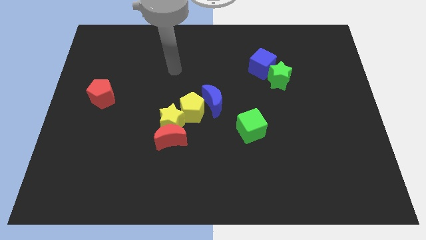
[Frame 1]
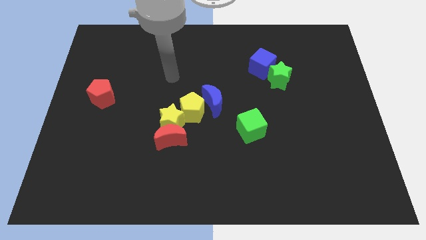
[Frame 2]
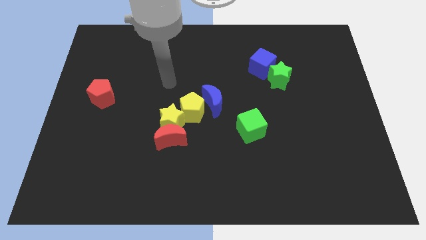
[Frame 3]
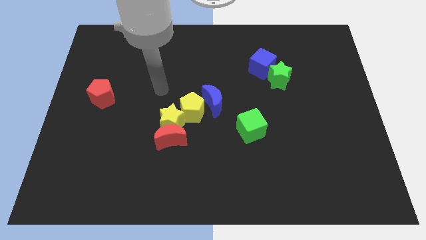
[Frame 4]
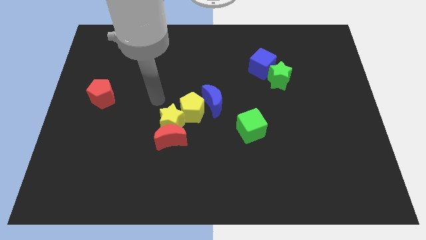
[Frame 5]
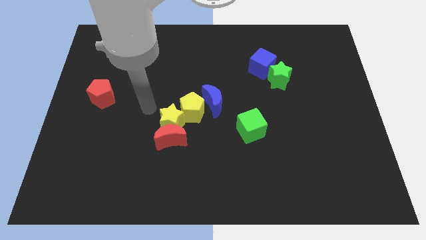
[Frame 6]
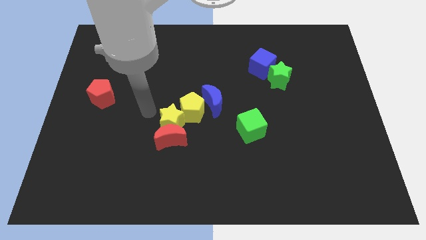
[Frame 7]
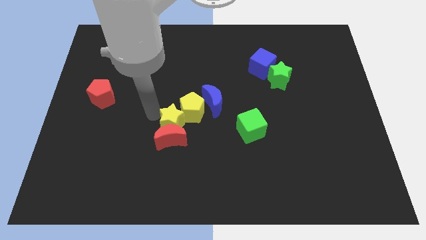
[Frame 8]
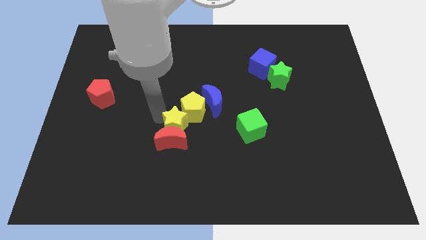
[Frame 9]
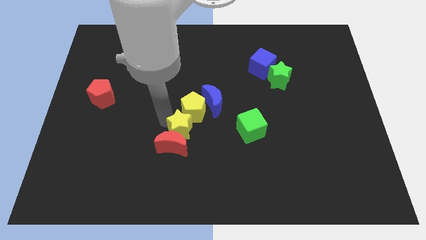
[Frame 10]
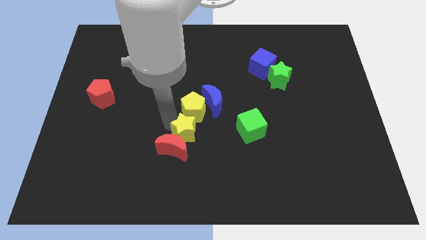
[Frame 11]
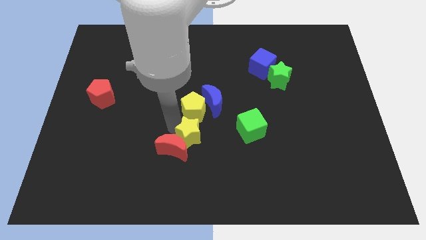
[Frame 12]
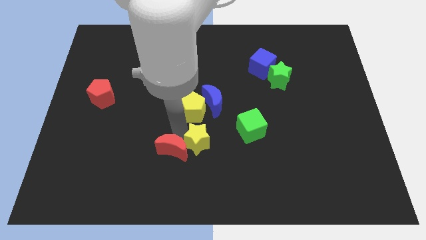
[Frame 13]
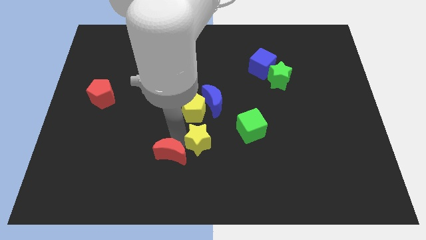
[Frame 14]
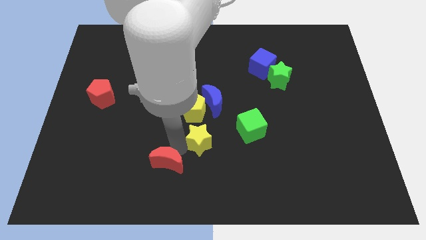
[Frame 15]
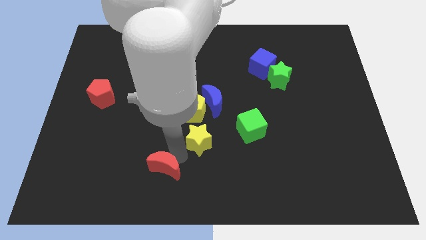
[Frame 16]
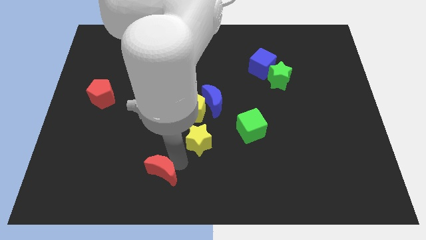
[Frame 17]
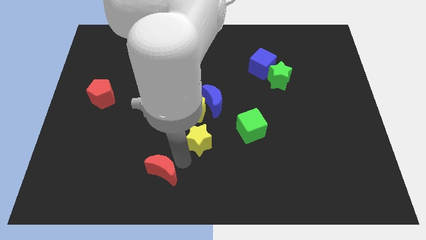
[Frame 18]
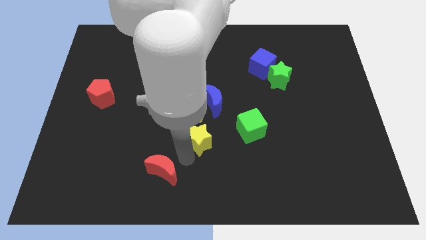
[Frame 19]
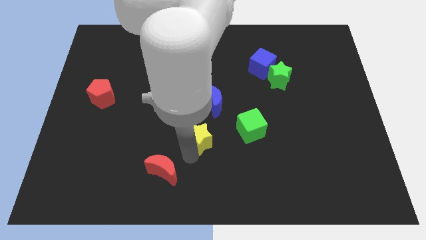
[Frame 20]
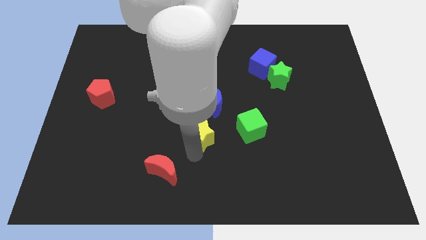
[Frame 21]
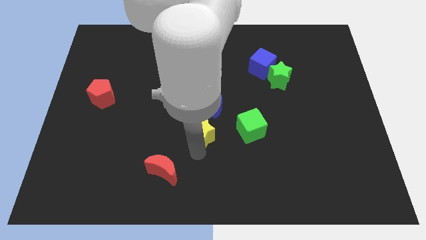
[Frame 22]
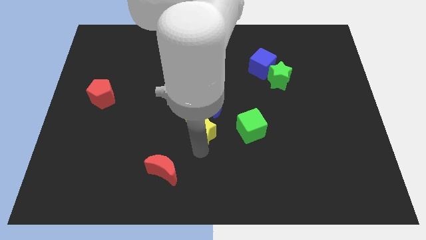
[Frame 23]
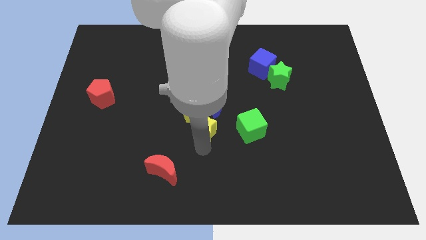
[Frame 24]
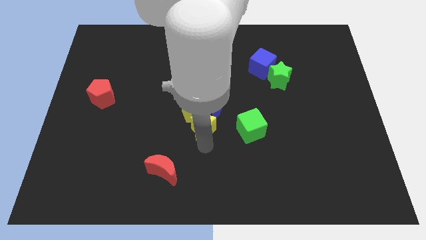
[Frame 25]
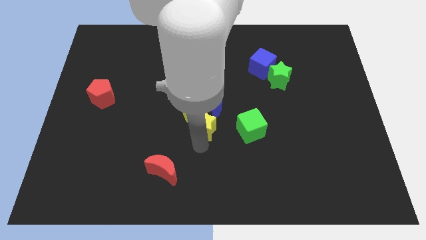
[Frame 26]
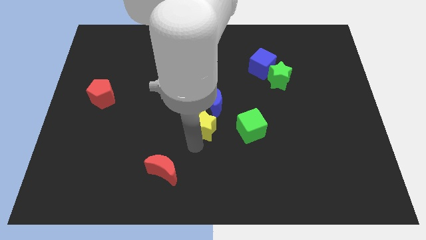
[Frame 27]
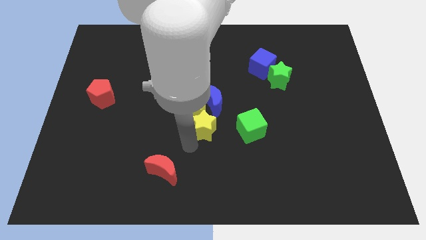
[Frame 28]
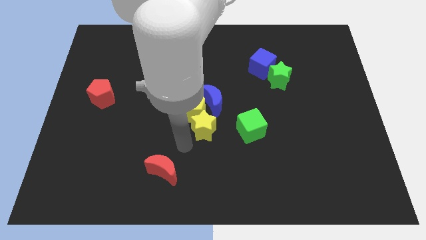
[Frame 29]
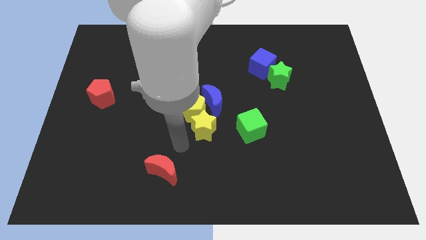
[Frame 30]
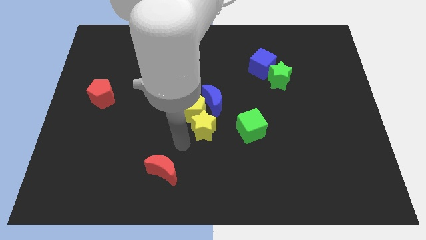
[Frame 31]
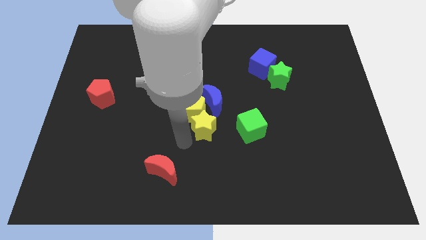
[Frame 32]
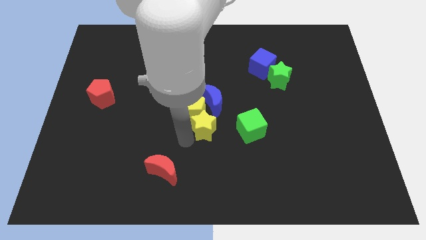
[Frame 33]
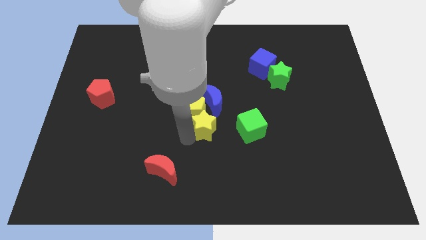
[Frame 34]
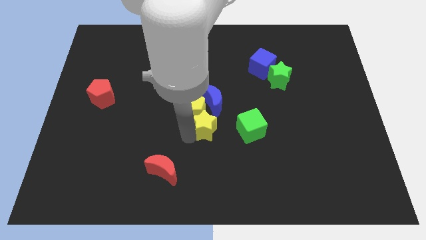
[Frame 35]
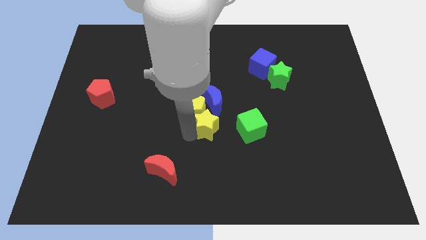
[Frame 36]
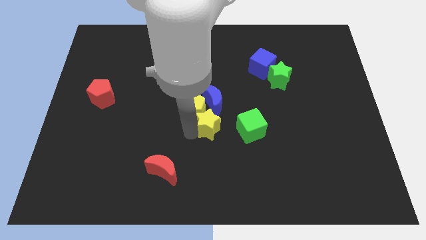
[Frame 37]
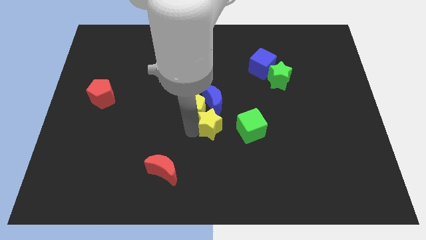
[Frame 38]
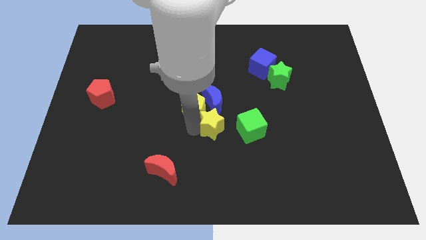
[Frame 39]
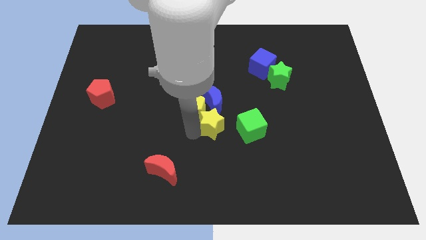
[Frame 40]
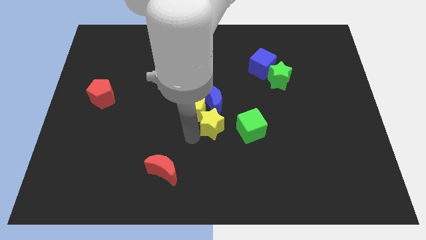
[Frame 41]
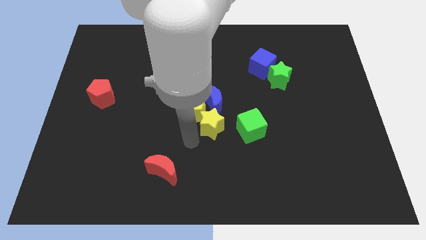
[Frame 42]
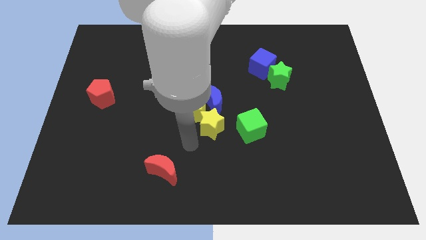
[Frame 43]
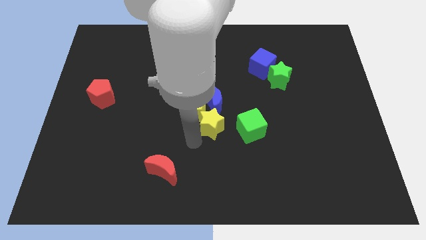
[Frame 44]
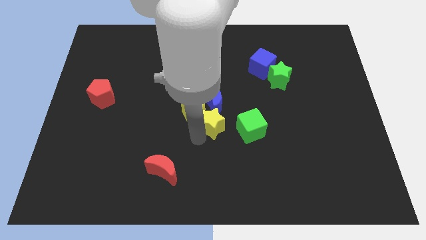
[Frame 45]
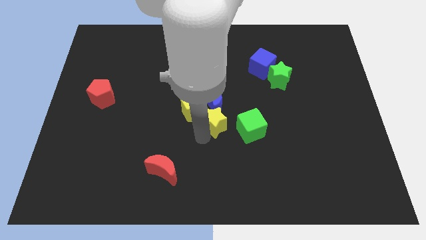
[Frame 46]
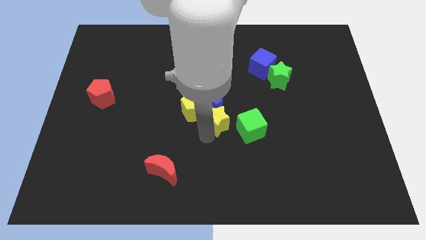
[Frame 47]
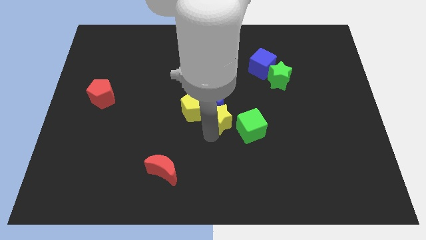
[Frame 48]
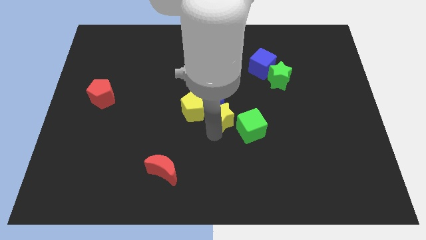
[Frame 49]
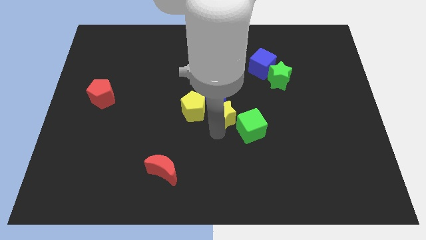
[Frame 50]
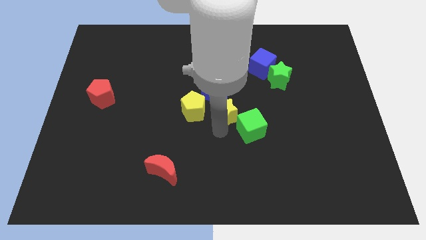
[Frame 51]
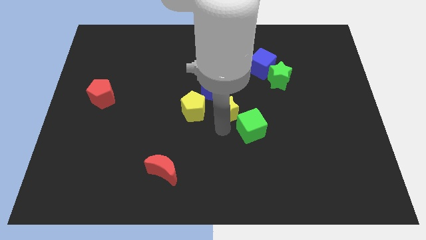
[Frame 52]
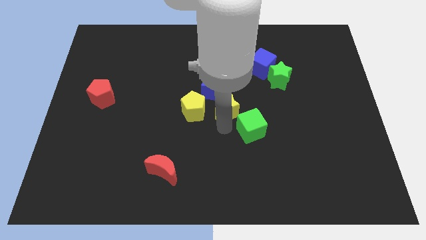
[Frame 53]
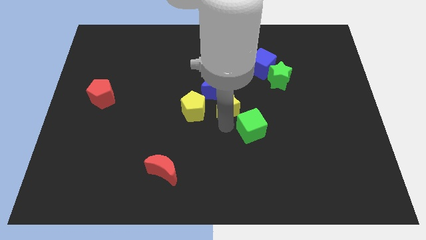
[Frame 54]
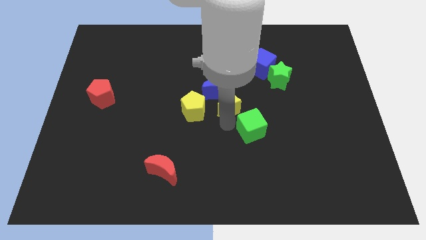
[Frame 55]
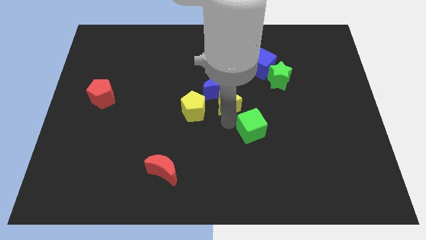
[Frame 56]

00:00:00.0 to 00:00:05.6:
move the yellow star above the green cube

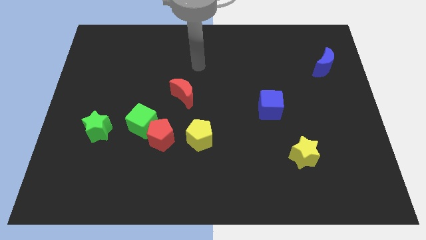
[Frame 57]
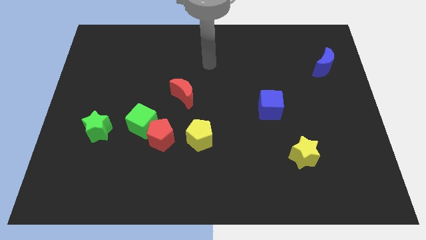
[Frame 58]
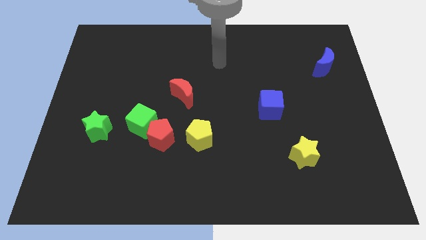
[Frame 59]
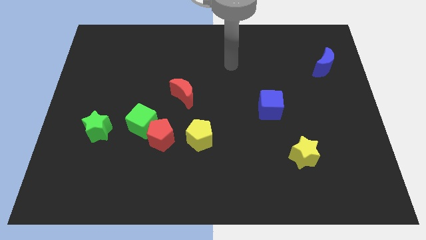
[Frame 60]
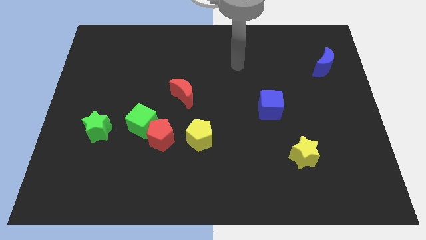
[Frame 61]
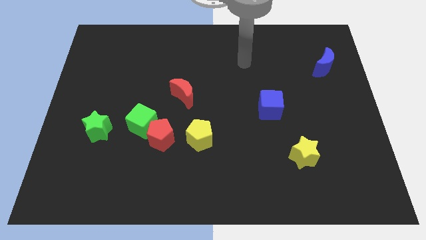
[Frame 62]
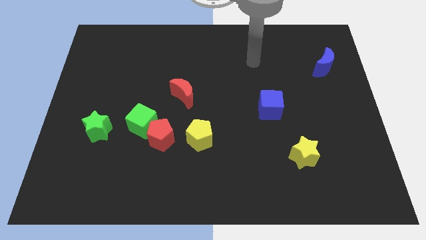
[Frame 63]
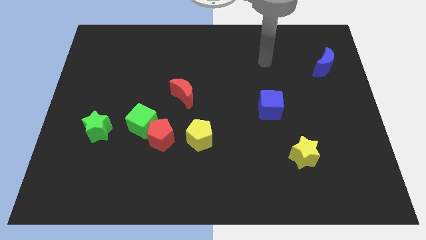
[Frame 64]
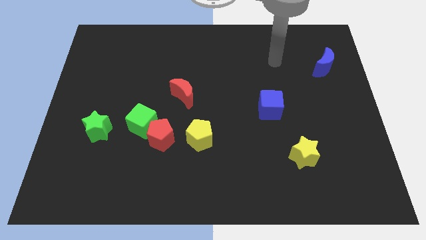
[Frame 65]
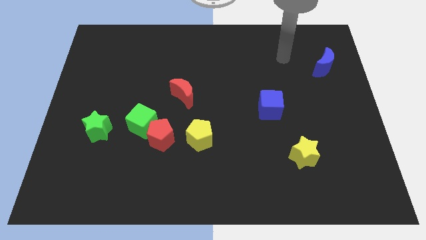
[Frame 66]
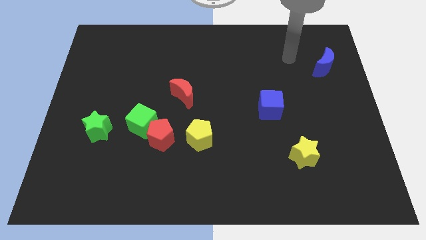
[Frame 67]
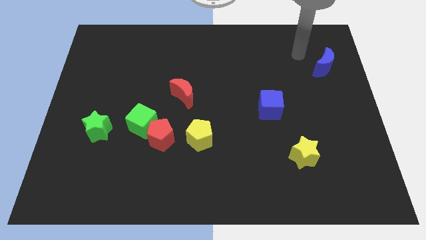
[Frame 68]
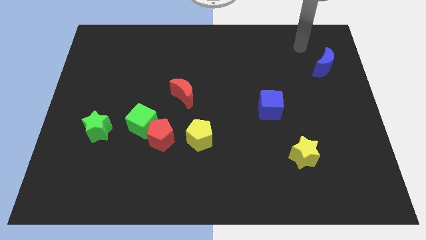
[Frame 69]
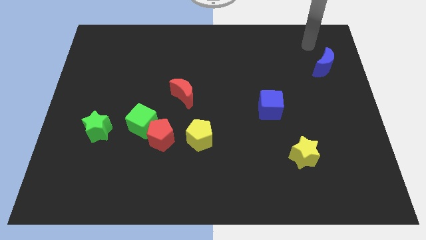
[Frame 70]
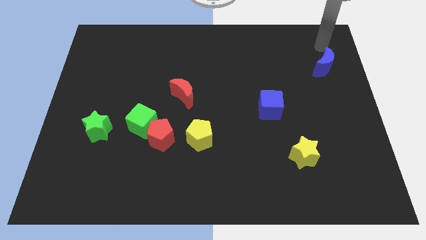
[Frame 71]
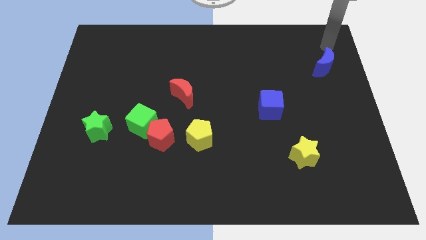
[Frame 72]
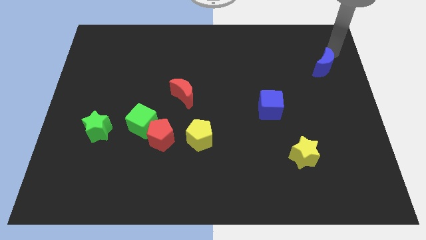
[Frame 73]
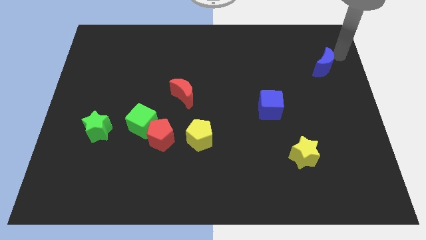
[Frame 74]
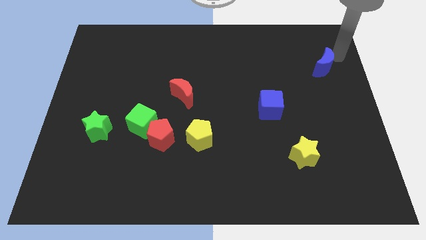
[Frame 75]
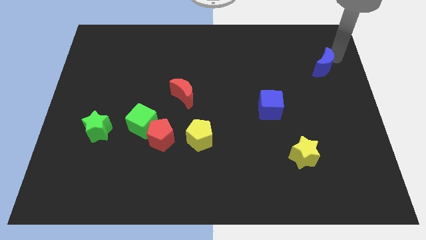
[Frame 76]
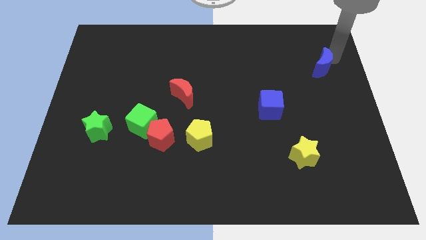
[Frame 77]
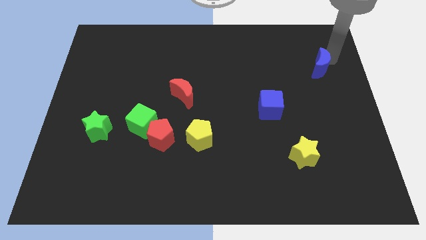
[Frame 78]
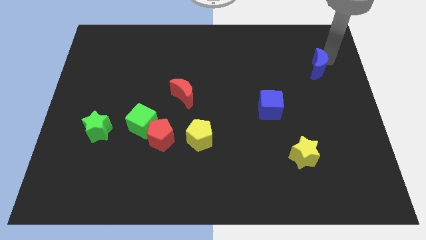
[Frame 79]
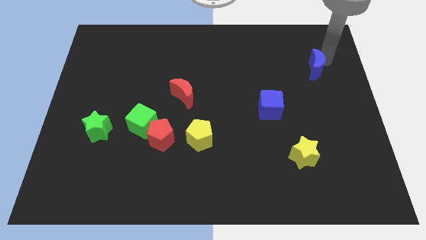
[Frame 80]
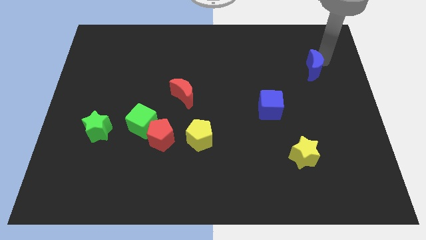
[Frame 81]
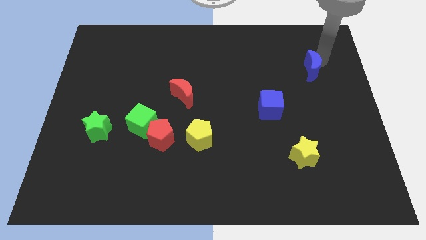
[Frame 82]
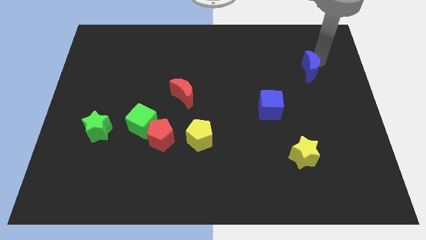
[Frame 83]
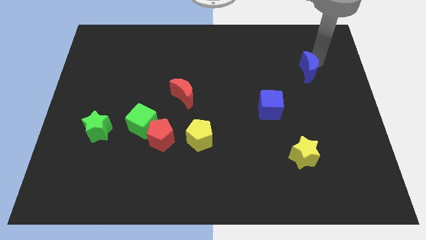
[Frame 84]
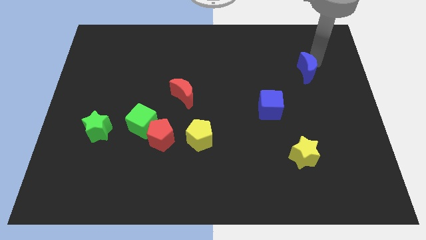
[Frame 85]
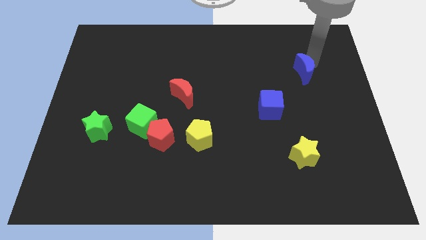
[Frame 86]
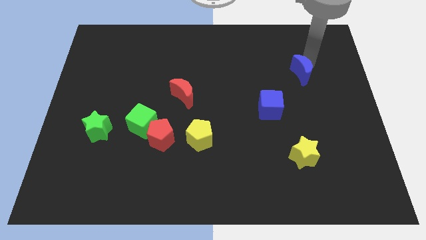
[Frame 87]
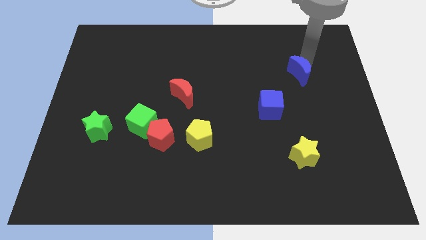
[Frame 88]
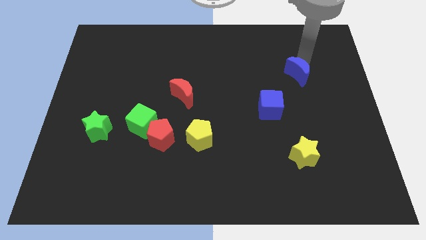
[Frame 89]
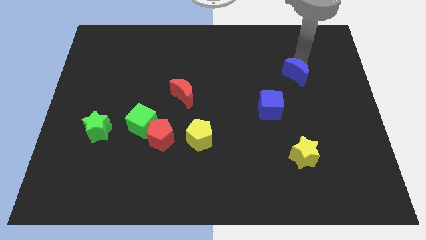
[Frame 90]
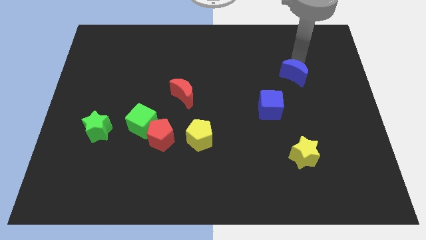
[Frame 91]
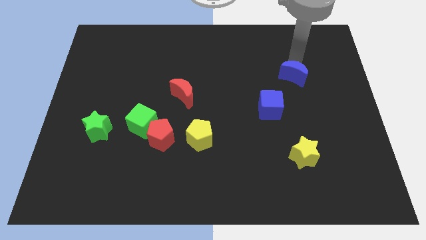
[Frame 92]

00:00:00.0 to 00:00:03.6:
push the blue moon to the top right side of the blue cube
